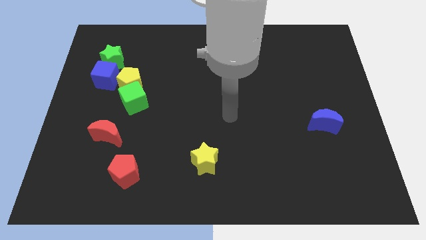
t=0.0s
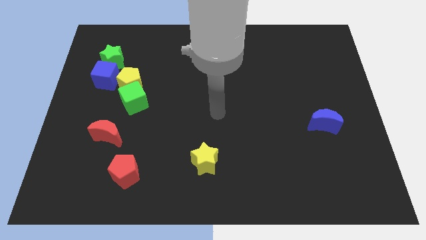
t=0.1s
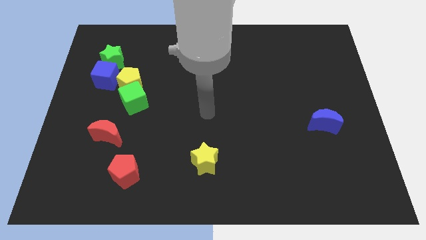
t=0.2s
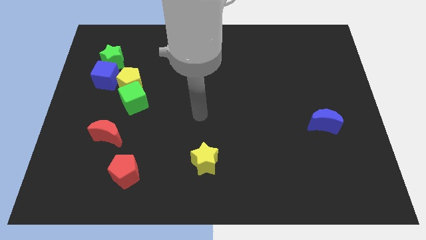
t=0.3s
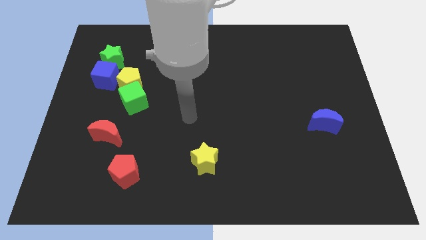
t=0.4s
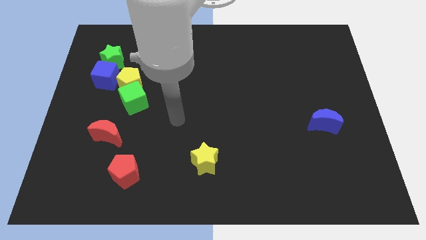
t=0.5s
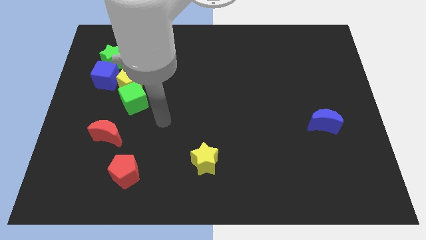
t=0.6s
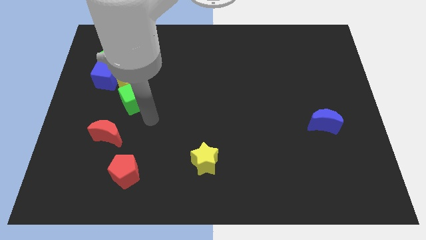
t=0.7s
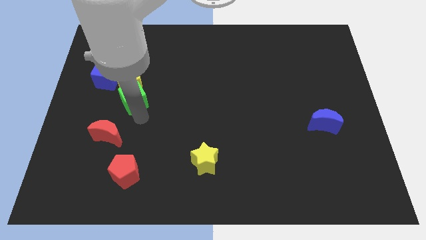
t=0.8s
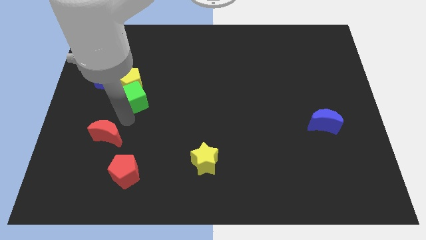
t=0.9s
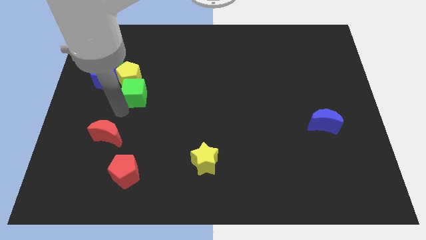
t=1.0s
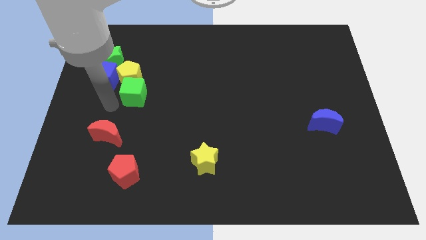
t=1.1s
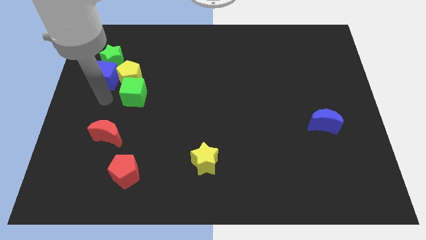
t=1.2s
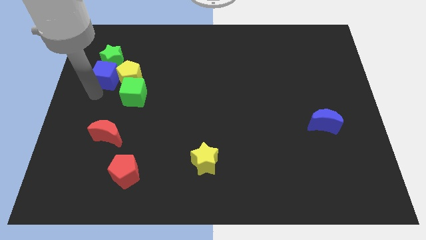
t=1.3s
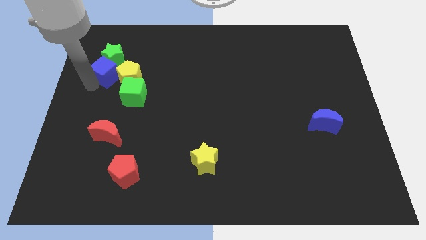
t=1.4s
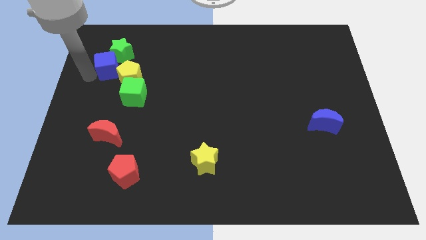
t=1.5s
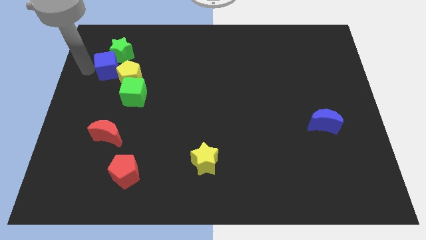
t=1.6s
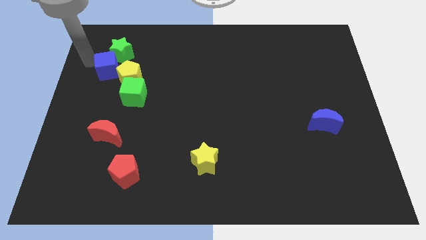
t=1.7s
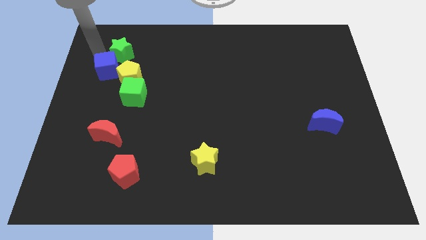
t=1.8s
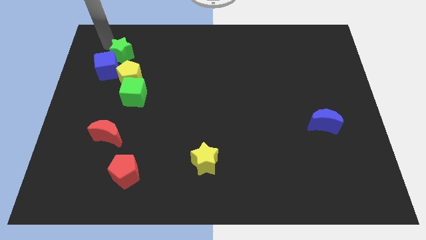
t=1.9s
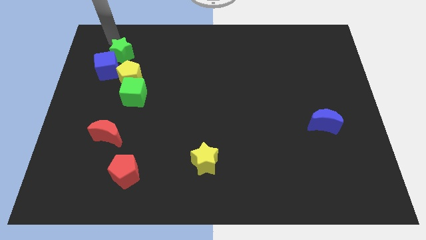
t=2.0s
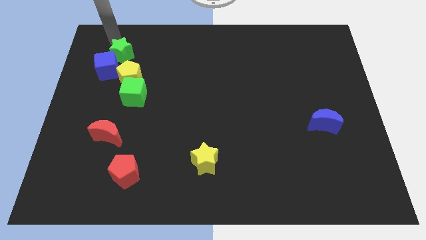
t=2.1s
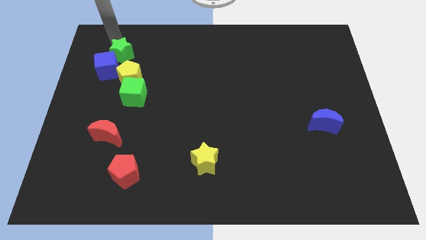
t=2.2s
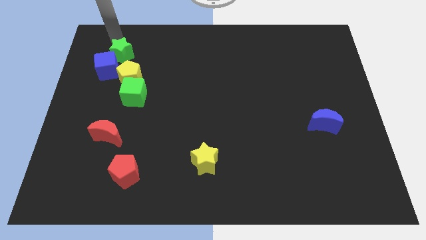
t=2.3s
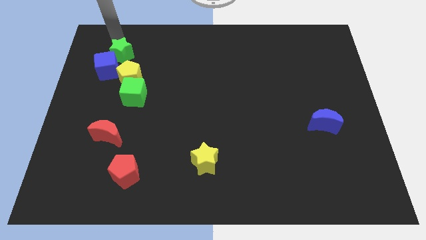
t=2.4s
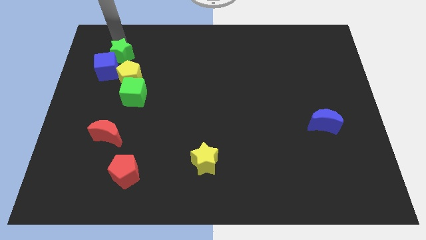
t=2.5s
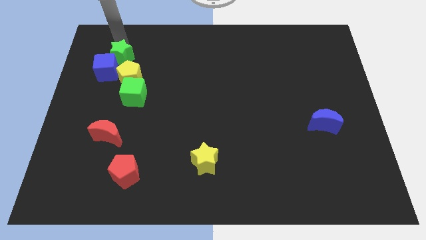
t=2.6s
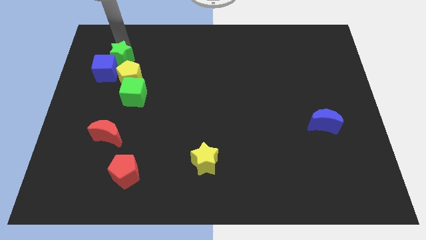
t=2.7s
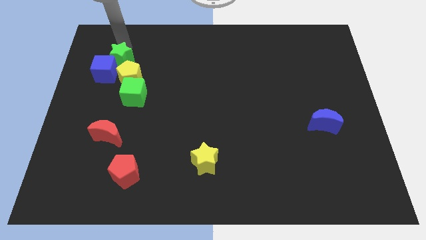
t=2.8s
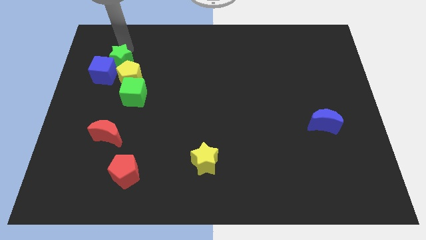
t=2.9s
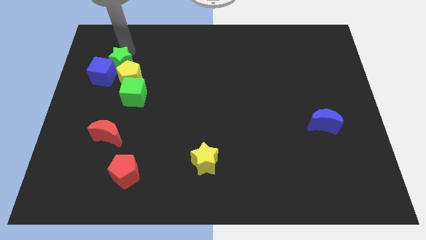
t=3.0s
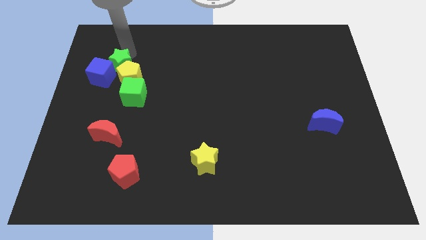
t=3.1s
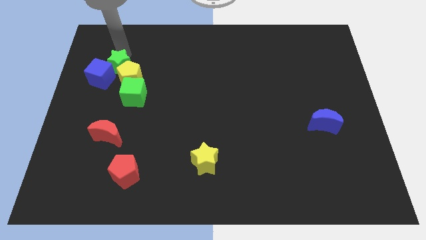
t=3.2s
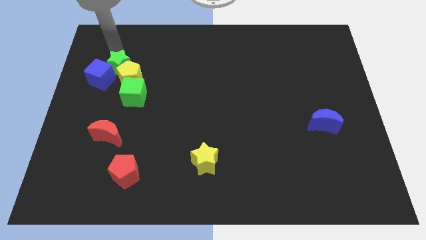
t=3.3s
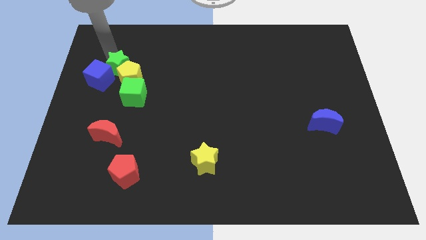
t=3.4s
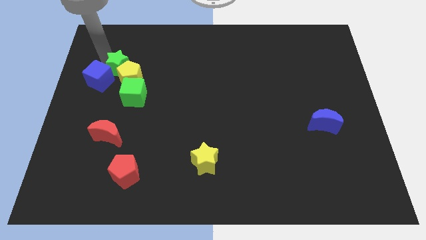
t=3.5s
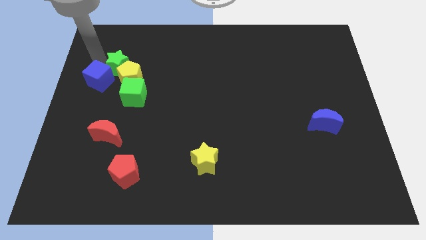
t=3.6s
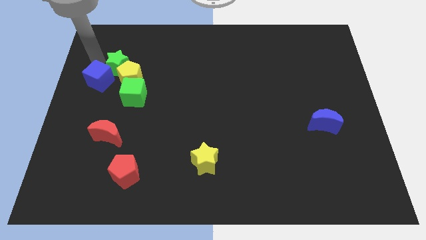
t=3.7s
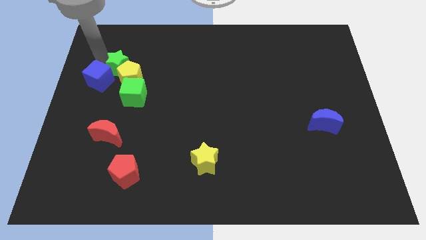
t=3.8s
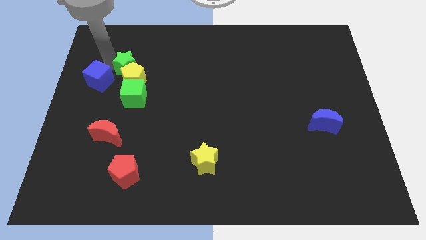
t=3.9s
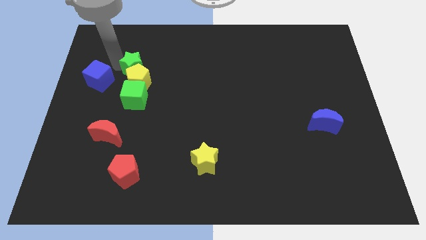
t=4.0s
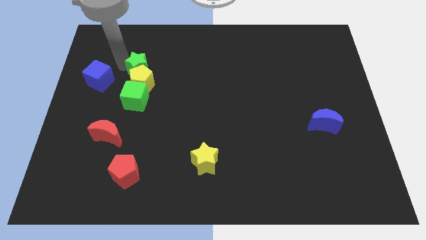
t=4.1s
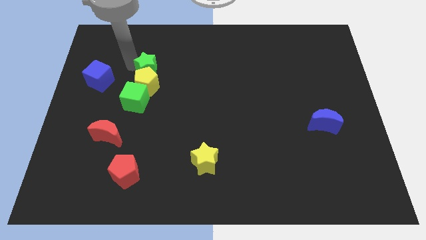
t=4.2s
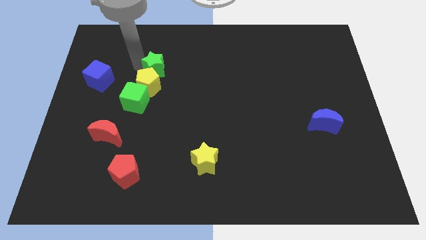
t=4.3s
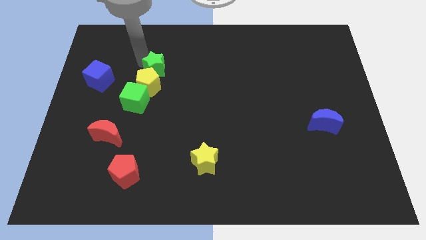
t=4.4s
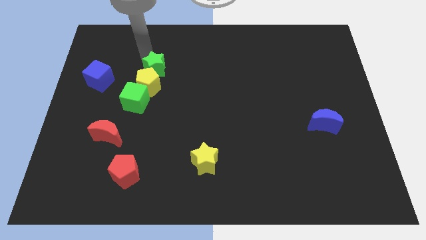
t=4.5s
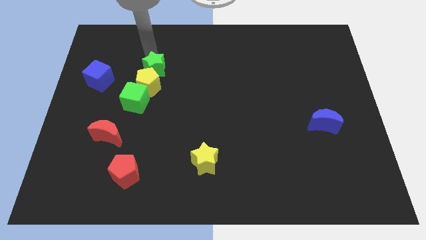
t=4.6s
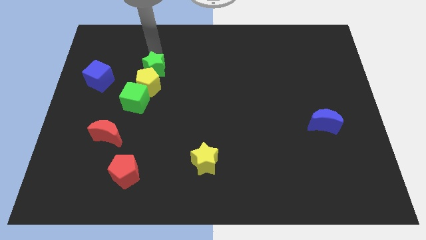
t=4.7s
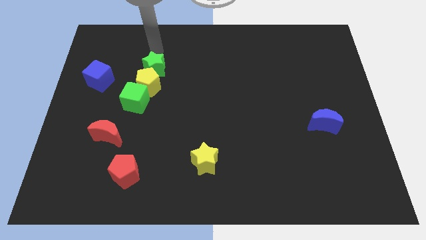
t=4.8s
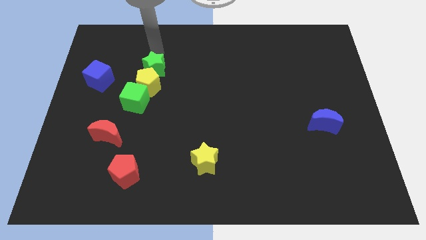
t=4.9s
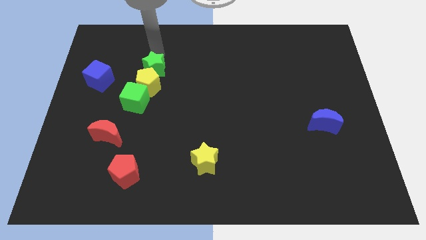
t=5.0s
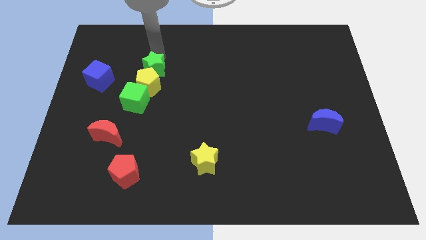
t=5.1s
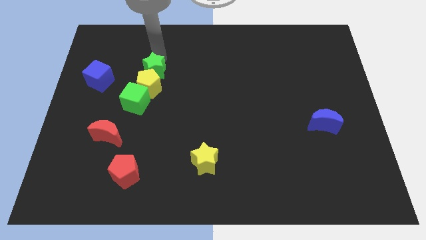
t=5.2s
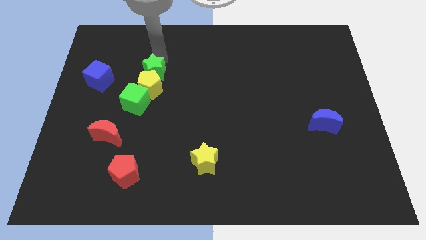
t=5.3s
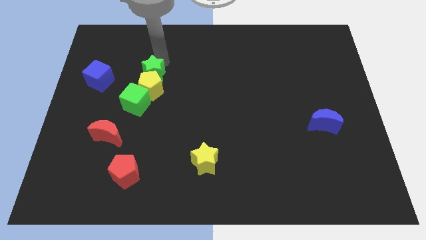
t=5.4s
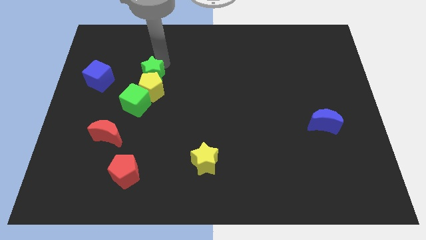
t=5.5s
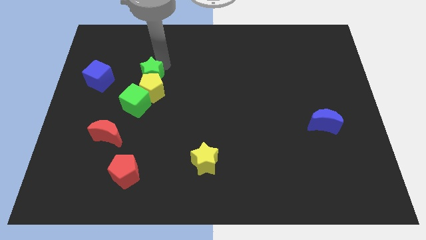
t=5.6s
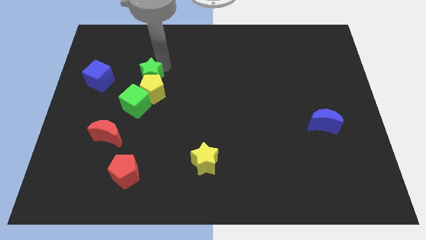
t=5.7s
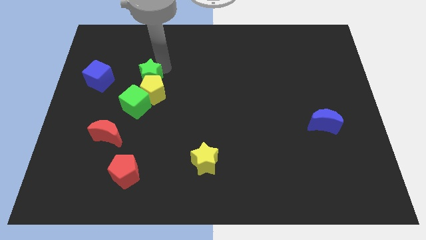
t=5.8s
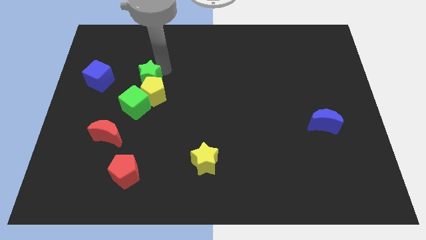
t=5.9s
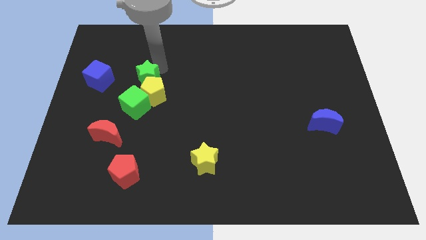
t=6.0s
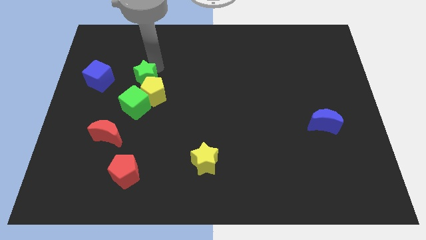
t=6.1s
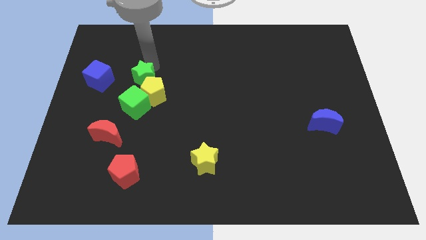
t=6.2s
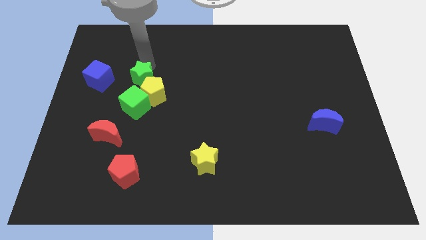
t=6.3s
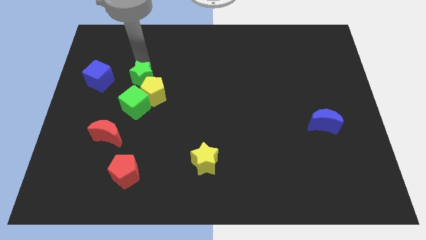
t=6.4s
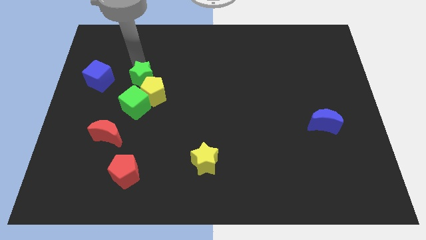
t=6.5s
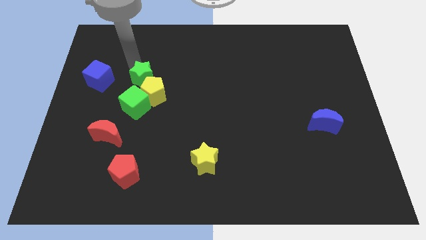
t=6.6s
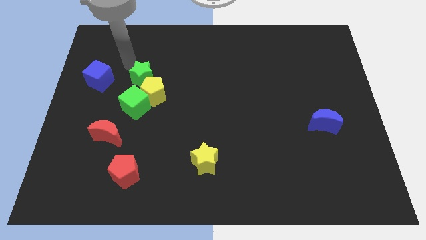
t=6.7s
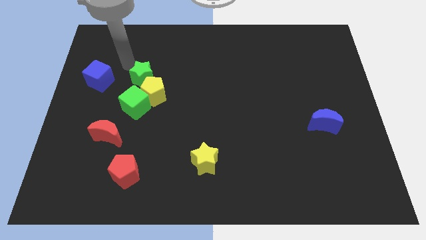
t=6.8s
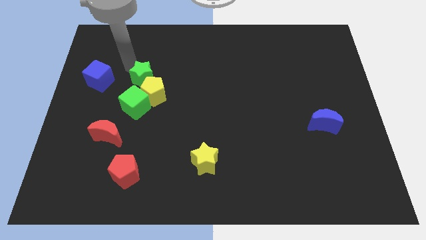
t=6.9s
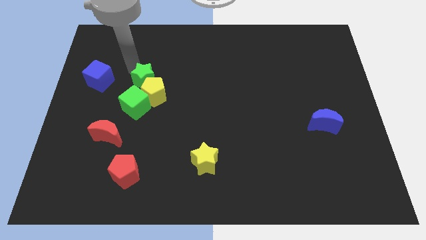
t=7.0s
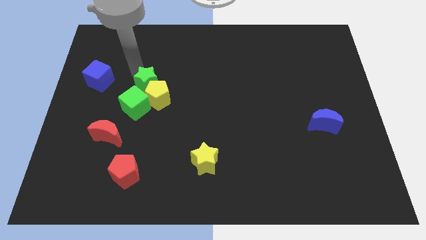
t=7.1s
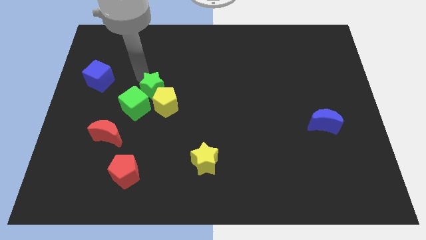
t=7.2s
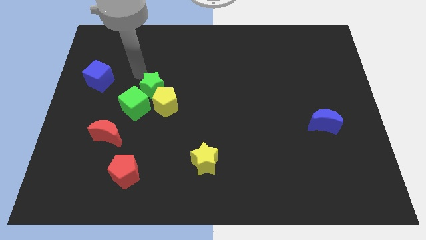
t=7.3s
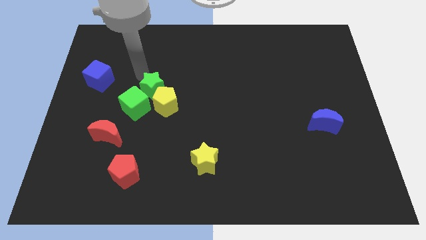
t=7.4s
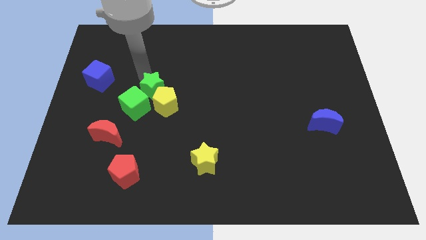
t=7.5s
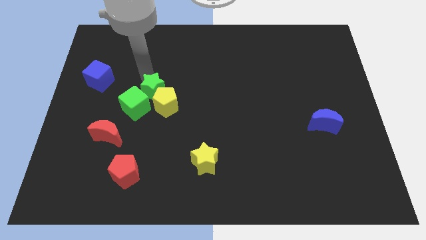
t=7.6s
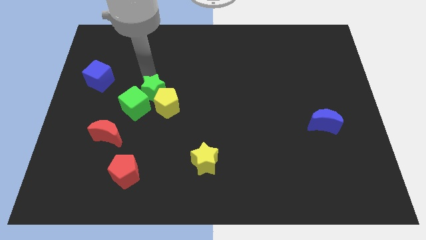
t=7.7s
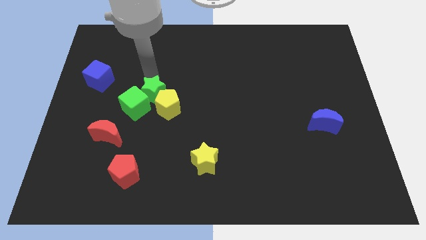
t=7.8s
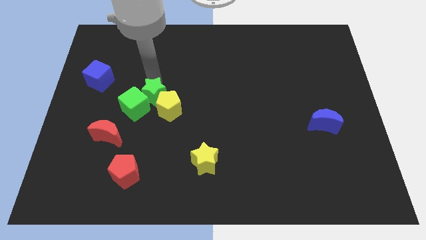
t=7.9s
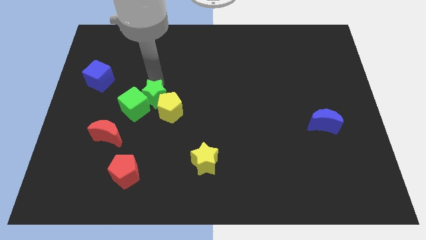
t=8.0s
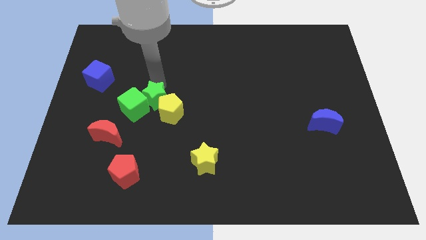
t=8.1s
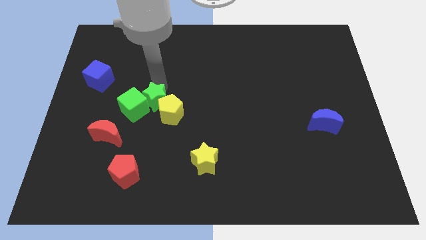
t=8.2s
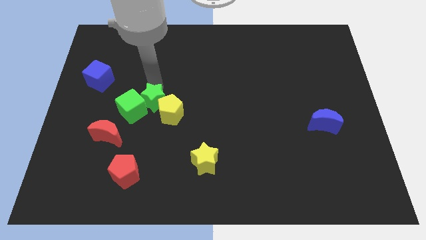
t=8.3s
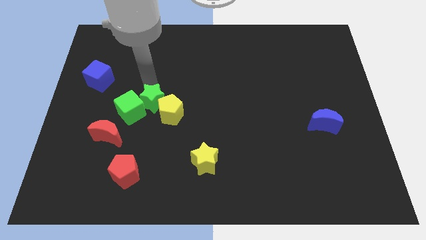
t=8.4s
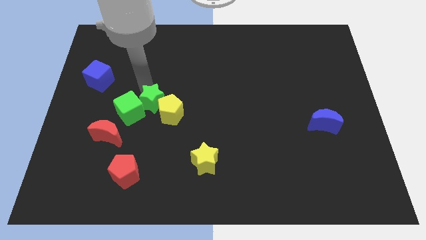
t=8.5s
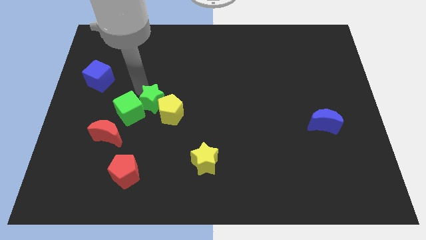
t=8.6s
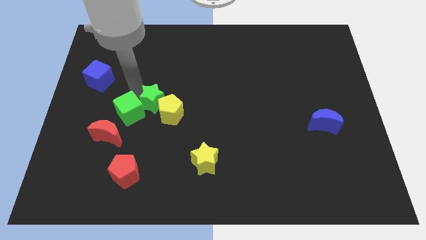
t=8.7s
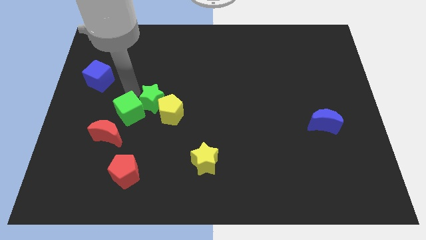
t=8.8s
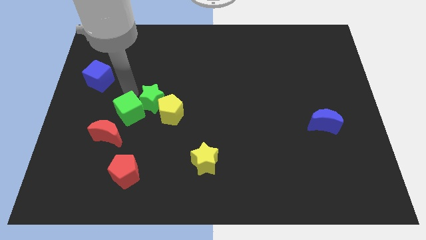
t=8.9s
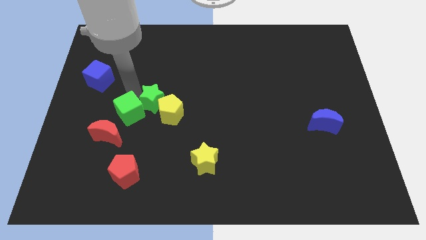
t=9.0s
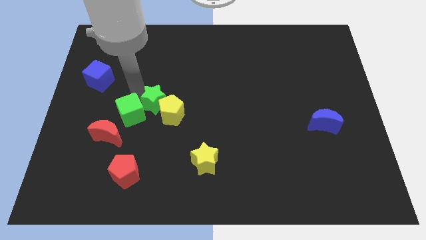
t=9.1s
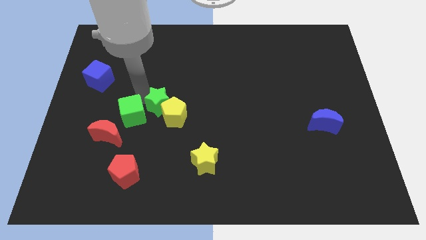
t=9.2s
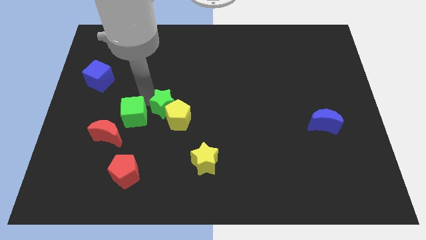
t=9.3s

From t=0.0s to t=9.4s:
slide the green star diagonally downwards and to the right
